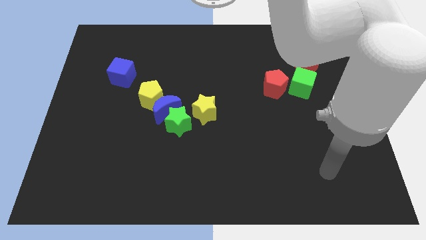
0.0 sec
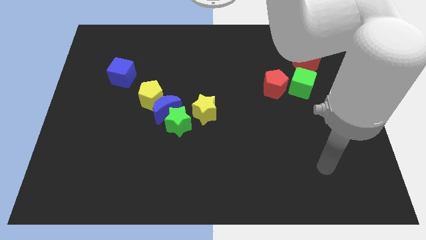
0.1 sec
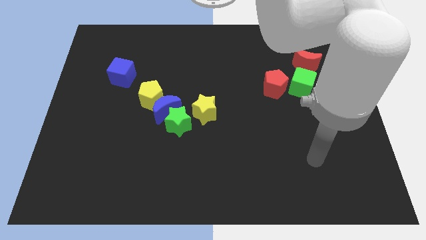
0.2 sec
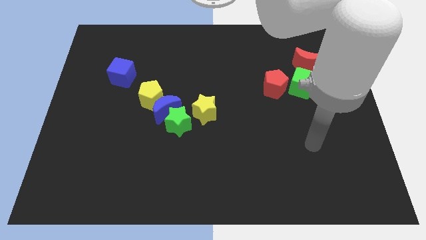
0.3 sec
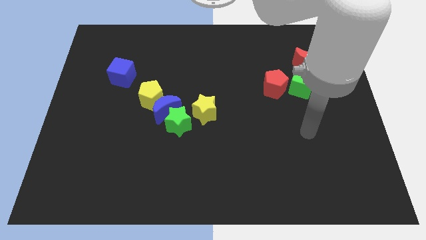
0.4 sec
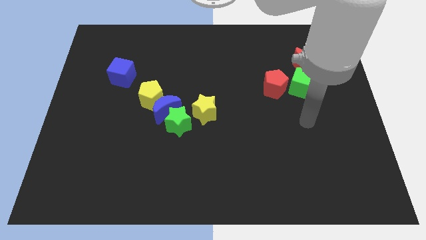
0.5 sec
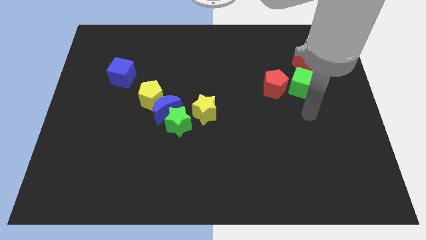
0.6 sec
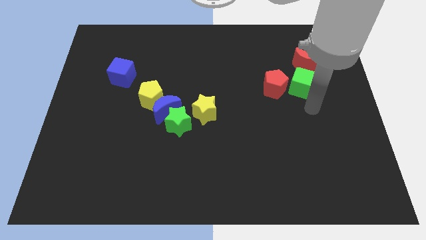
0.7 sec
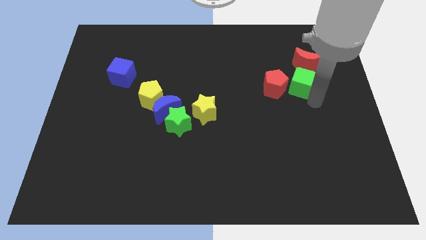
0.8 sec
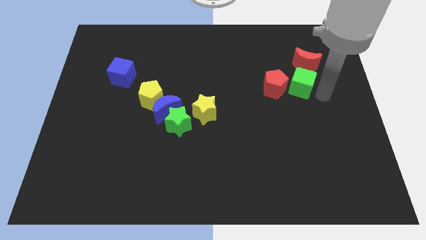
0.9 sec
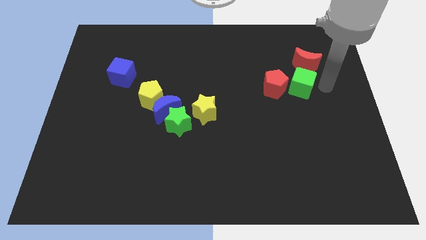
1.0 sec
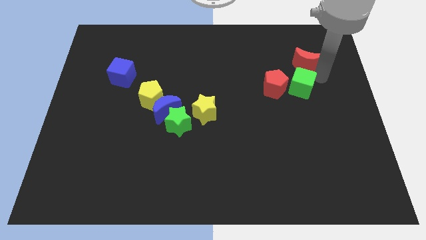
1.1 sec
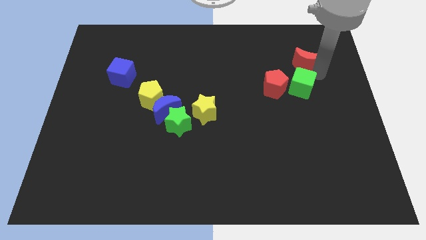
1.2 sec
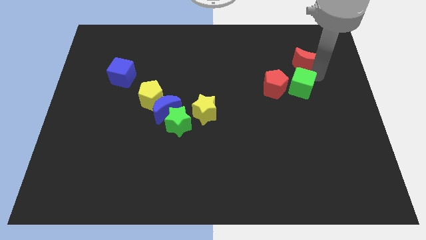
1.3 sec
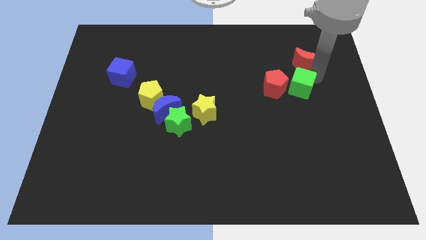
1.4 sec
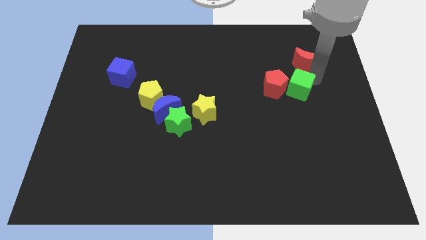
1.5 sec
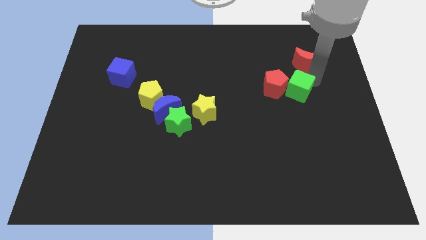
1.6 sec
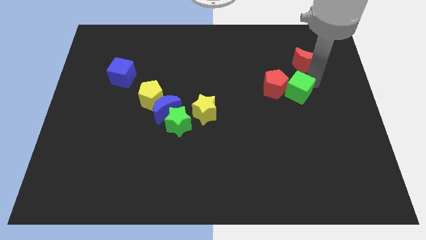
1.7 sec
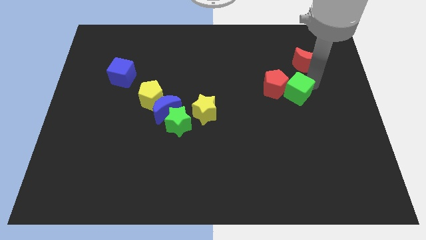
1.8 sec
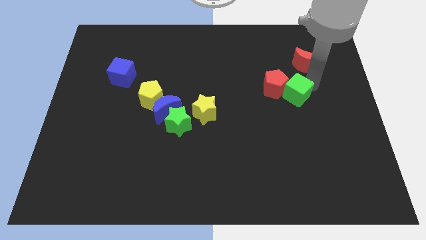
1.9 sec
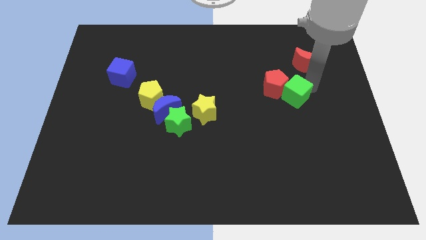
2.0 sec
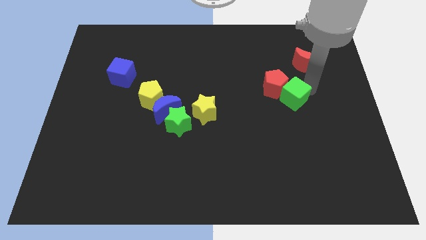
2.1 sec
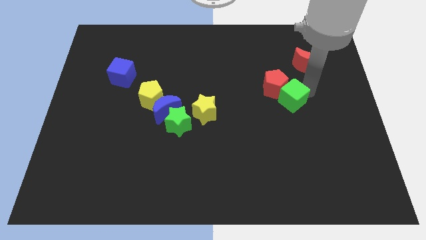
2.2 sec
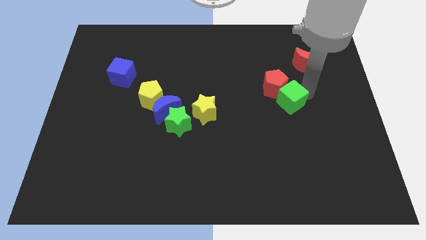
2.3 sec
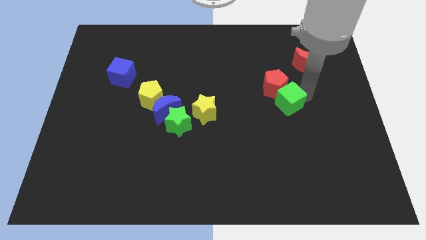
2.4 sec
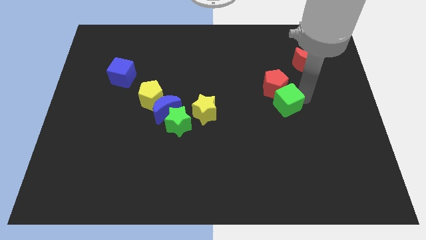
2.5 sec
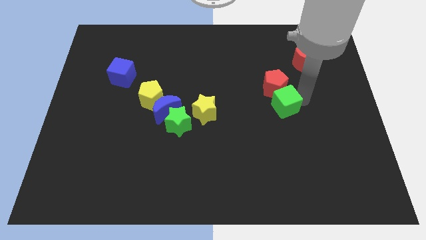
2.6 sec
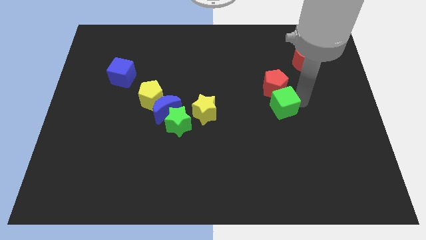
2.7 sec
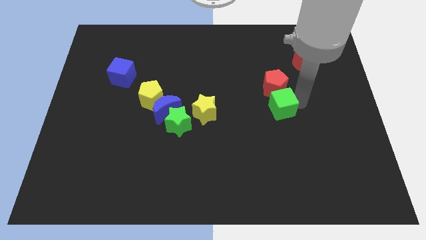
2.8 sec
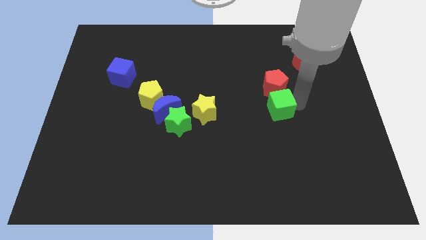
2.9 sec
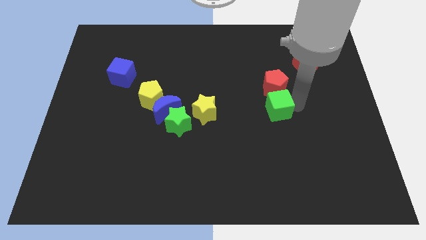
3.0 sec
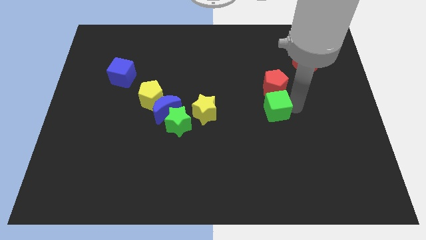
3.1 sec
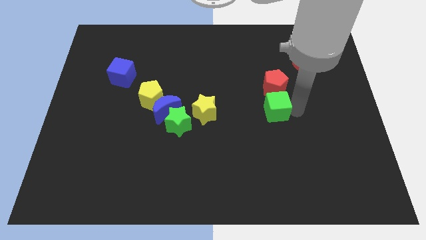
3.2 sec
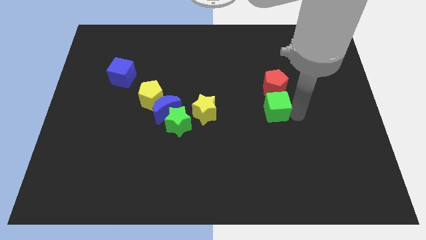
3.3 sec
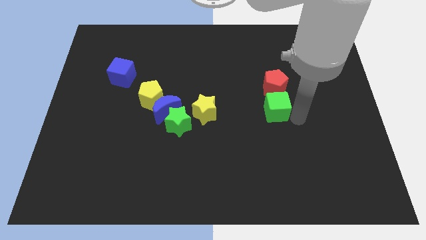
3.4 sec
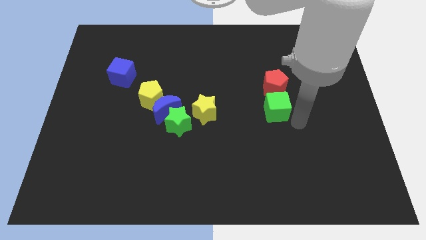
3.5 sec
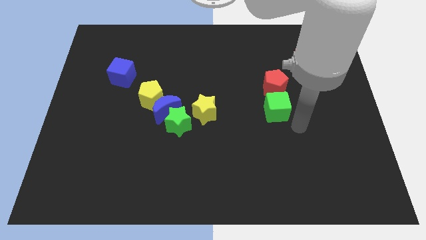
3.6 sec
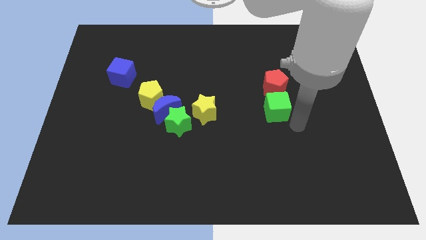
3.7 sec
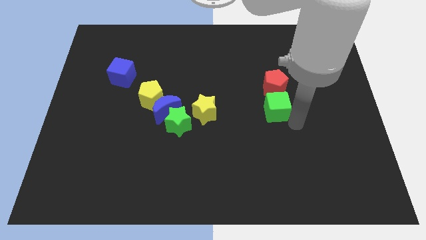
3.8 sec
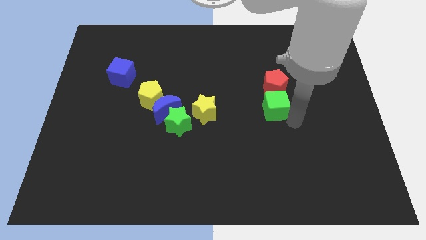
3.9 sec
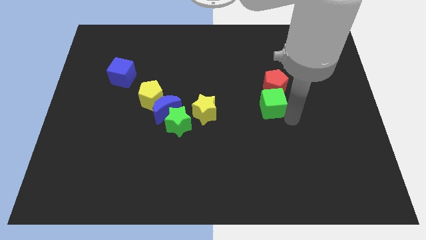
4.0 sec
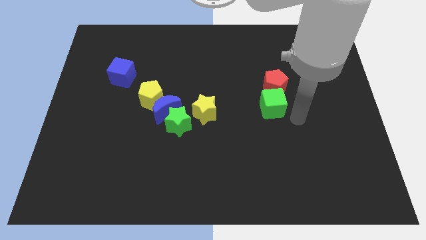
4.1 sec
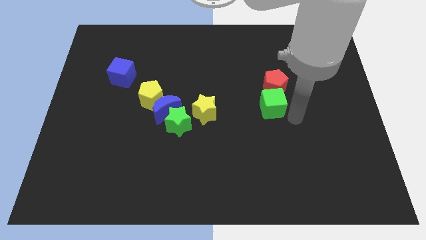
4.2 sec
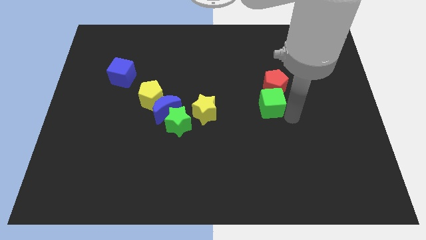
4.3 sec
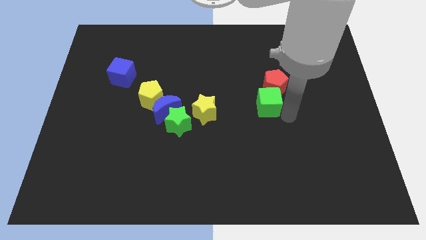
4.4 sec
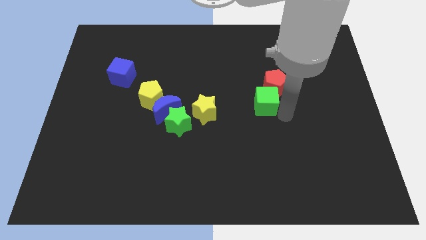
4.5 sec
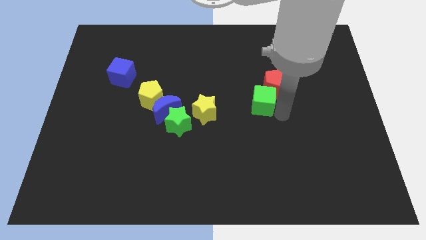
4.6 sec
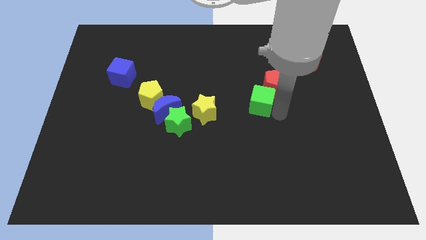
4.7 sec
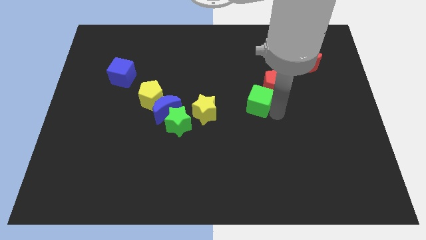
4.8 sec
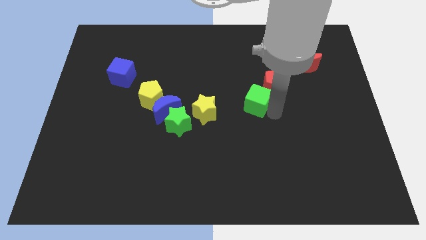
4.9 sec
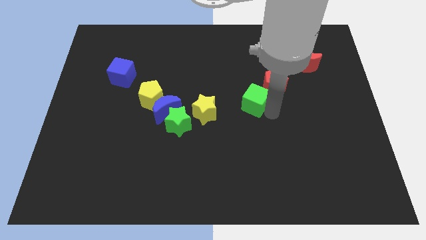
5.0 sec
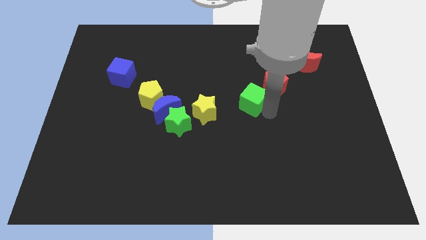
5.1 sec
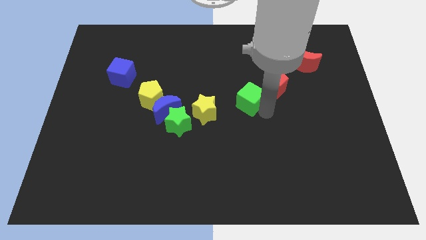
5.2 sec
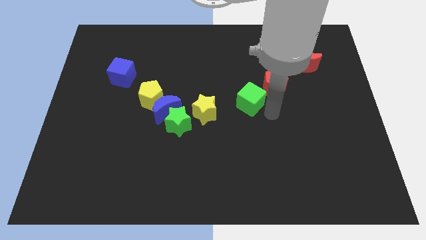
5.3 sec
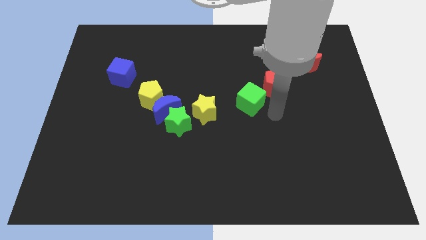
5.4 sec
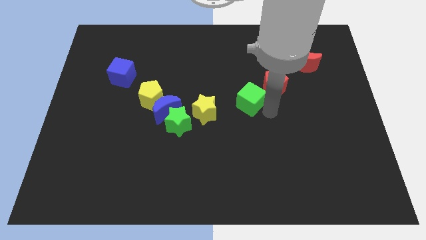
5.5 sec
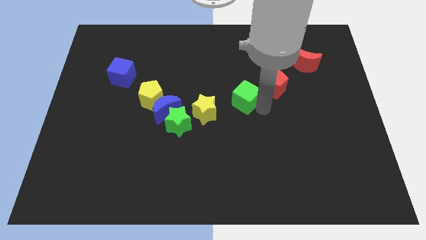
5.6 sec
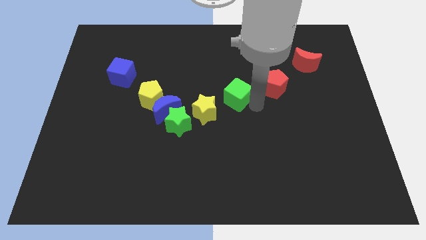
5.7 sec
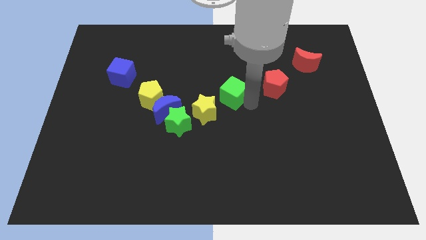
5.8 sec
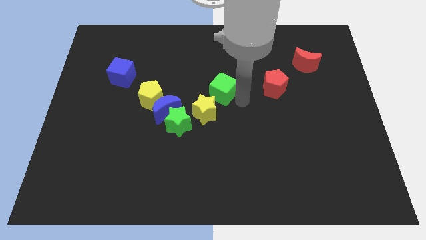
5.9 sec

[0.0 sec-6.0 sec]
push the green cube to the top side of the yellow star

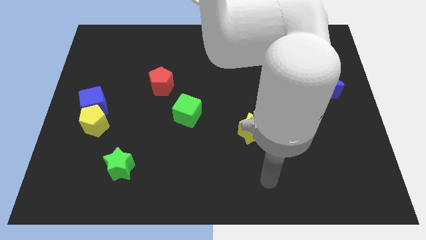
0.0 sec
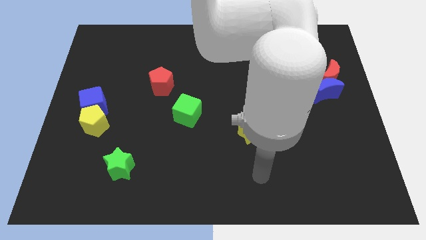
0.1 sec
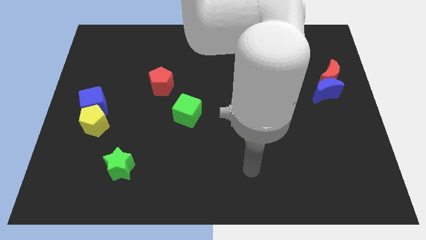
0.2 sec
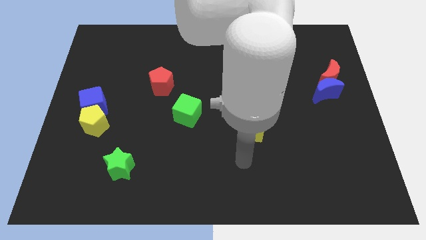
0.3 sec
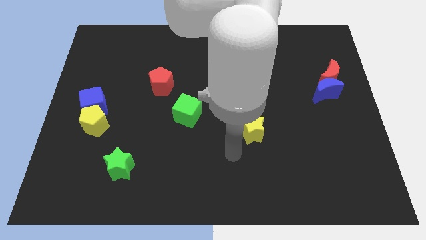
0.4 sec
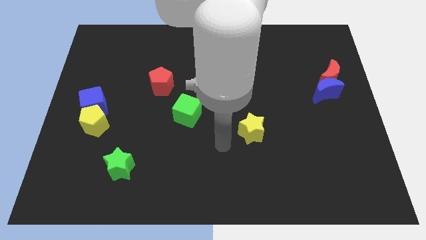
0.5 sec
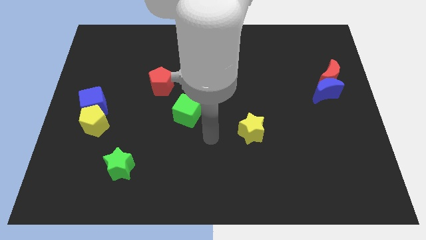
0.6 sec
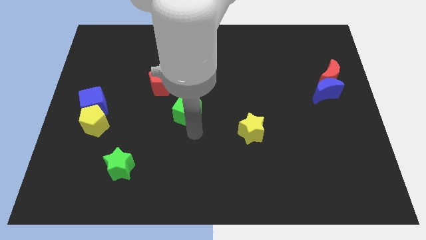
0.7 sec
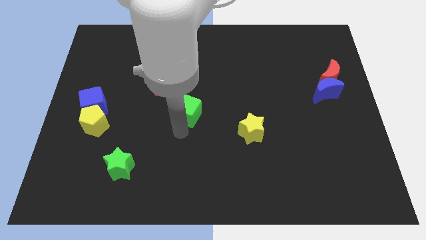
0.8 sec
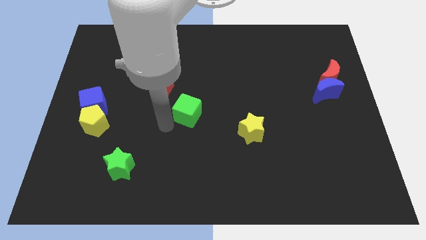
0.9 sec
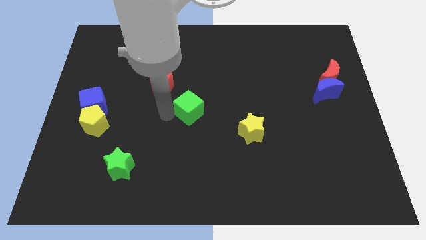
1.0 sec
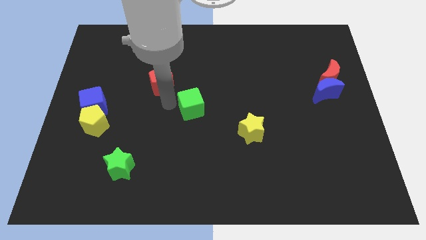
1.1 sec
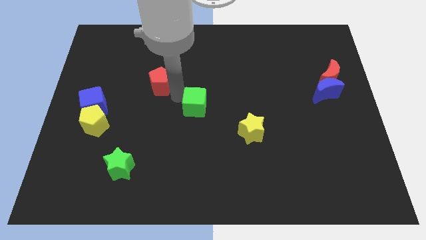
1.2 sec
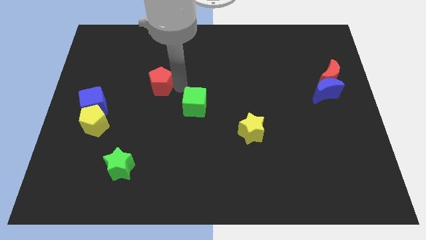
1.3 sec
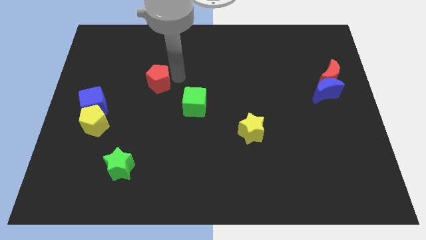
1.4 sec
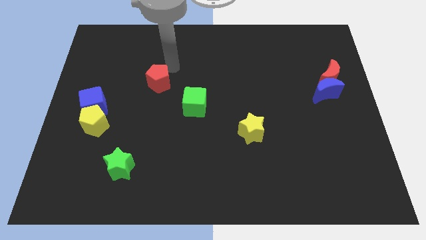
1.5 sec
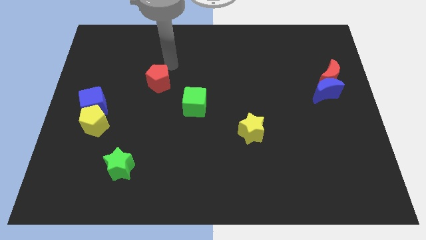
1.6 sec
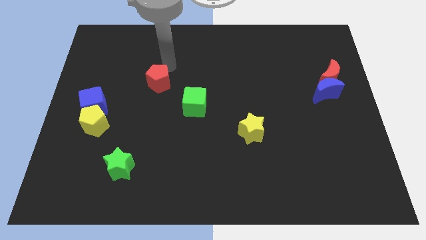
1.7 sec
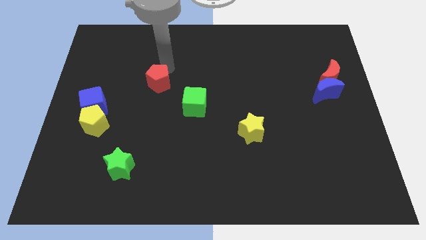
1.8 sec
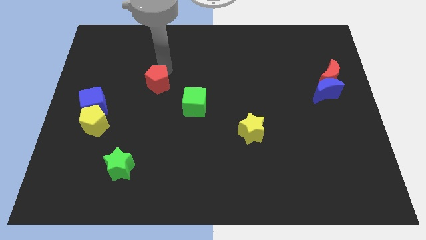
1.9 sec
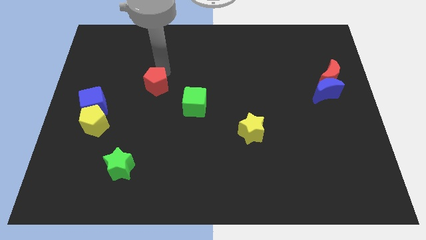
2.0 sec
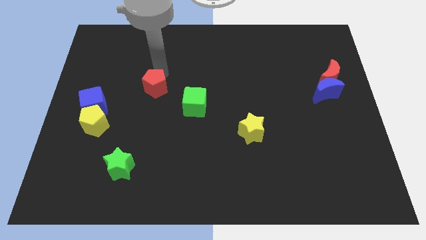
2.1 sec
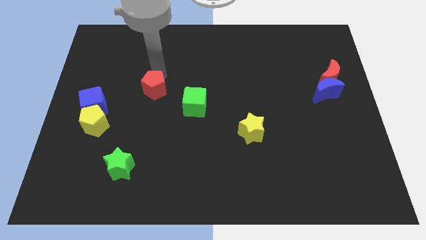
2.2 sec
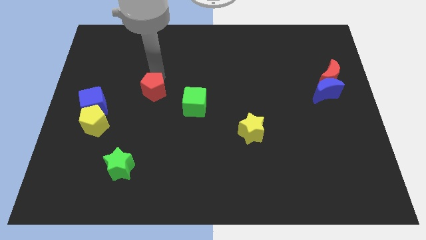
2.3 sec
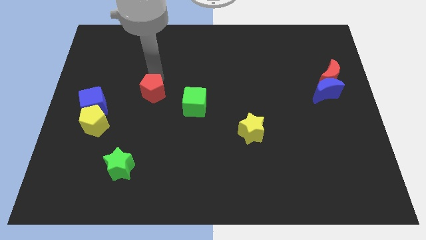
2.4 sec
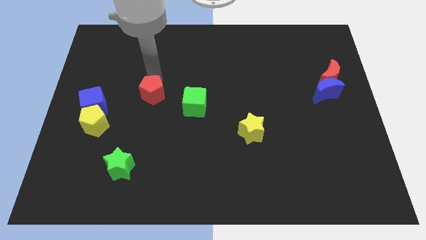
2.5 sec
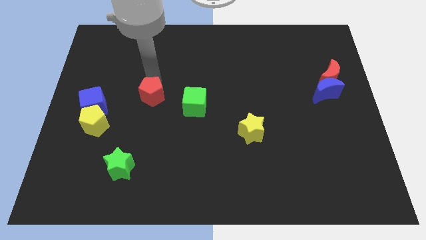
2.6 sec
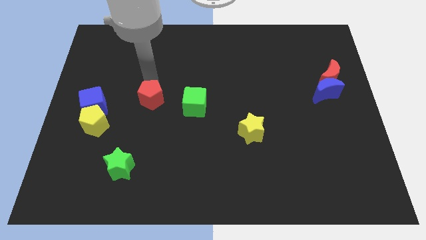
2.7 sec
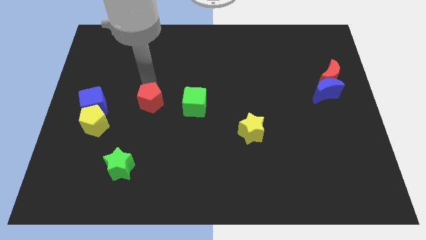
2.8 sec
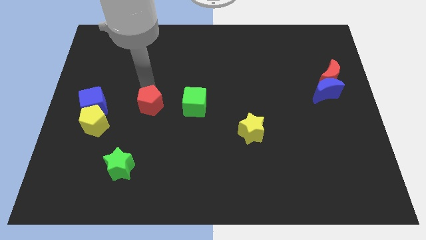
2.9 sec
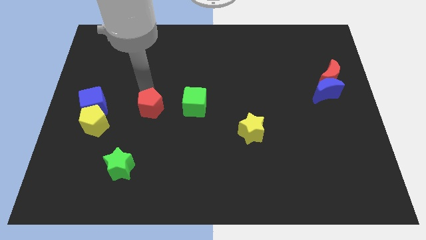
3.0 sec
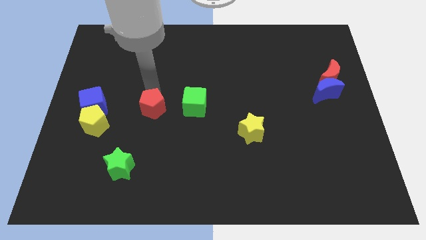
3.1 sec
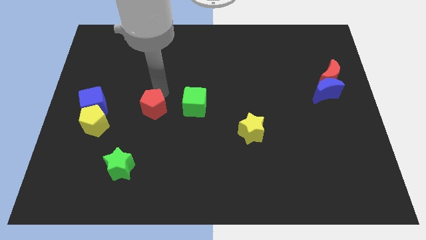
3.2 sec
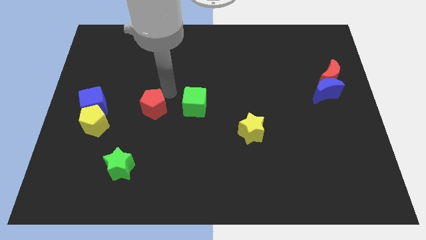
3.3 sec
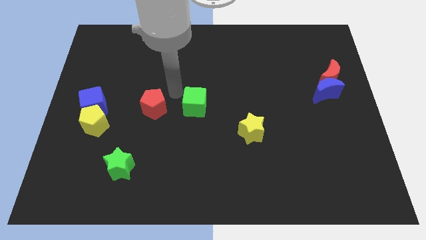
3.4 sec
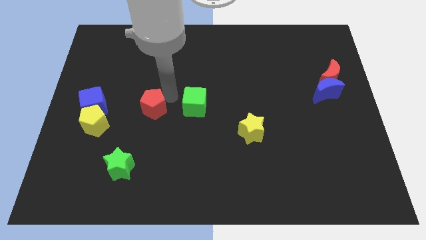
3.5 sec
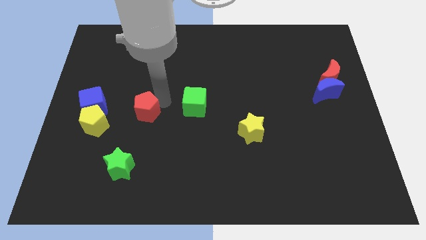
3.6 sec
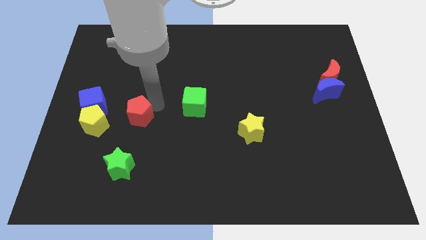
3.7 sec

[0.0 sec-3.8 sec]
move the red pentagon above the green star
